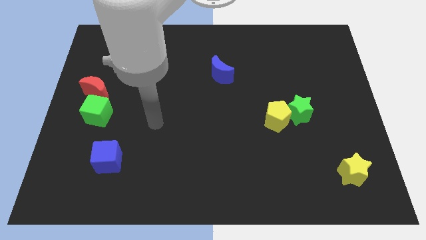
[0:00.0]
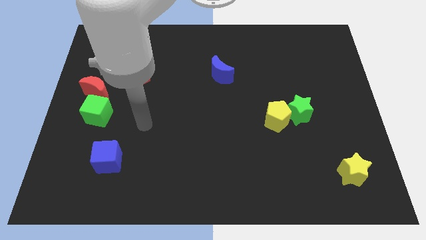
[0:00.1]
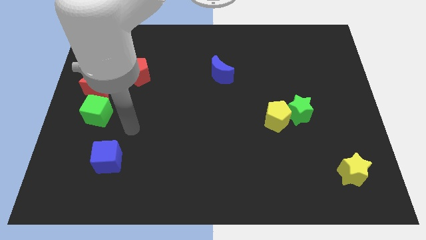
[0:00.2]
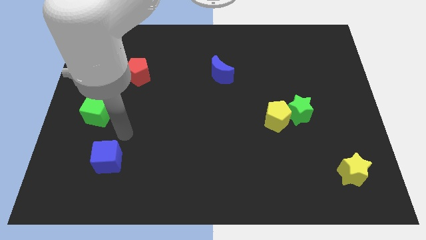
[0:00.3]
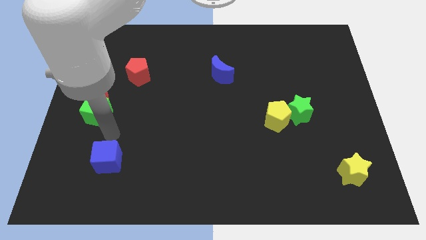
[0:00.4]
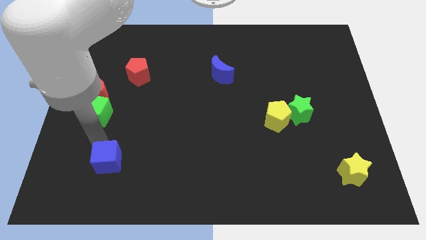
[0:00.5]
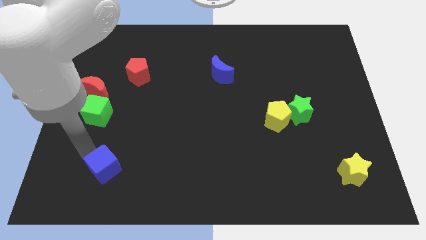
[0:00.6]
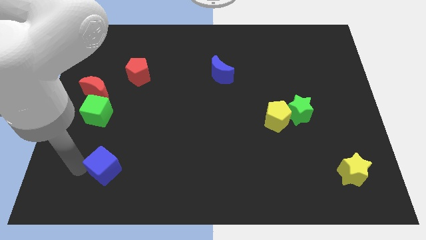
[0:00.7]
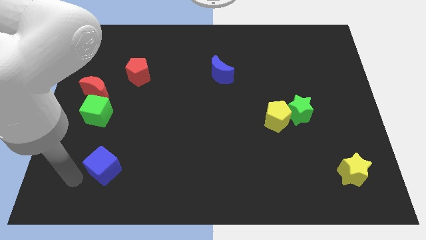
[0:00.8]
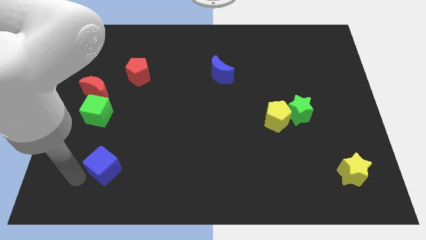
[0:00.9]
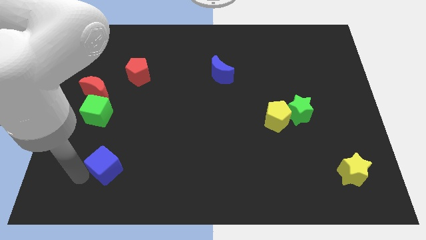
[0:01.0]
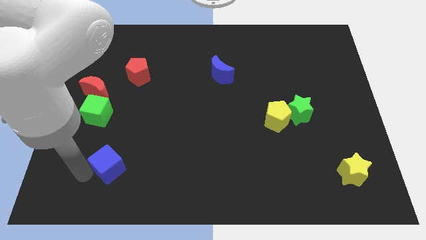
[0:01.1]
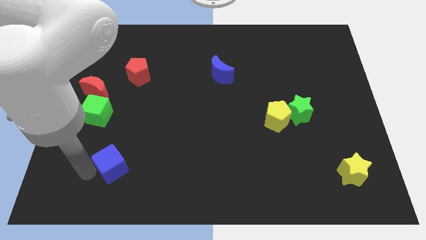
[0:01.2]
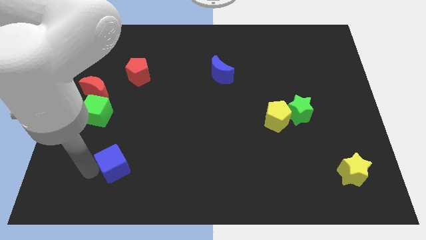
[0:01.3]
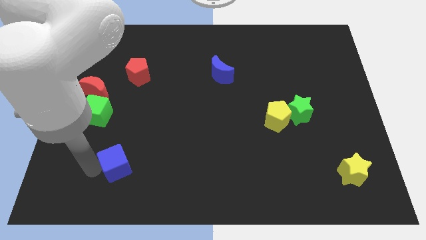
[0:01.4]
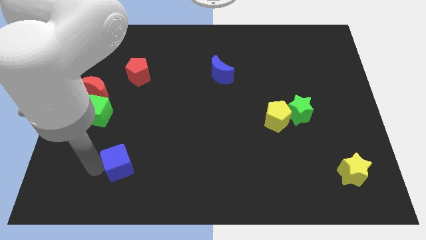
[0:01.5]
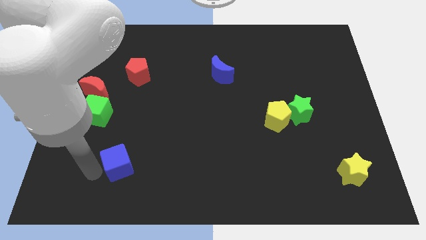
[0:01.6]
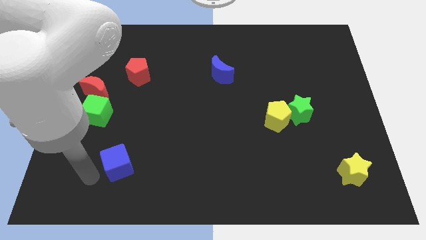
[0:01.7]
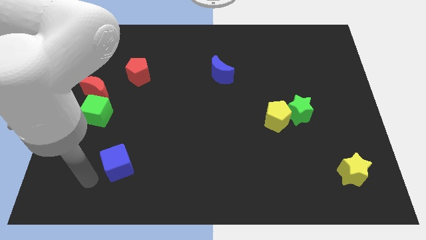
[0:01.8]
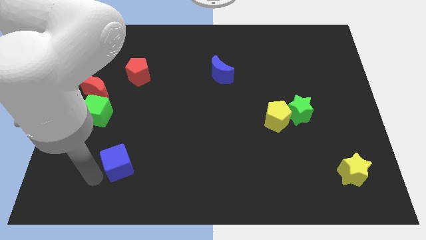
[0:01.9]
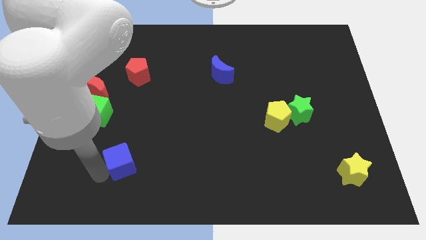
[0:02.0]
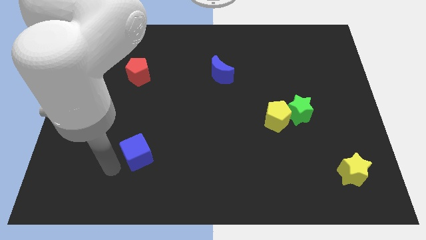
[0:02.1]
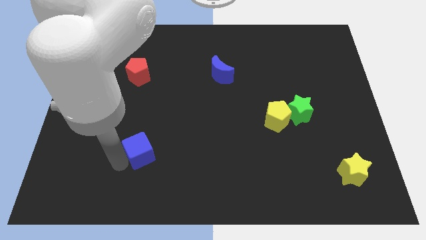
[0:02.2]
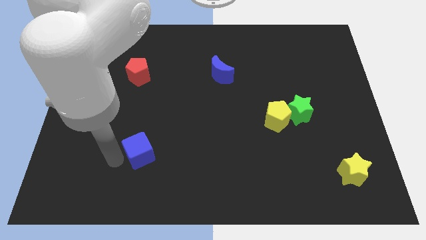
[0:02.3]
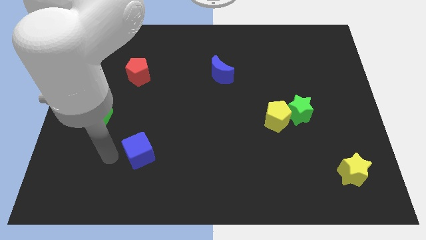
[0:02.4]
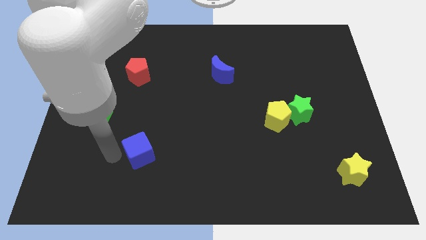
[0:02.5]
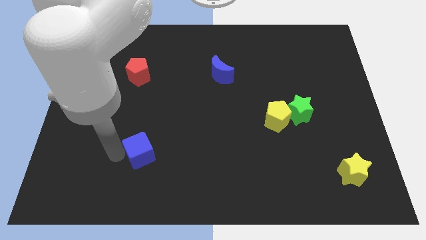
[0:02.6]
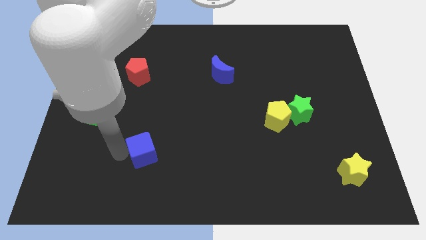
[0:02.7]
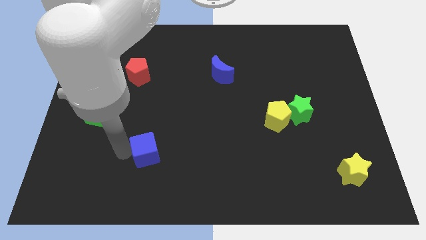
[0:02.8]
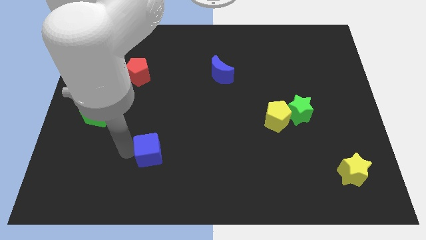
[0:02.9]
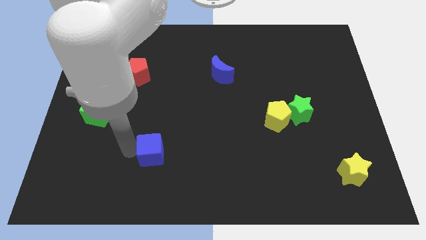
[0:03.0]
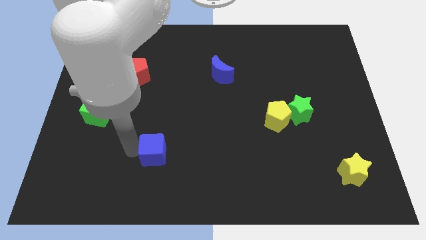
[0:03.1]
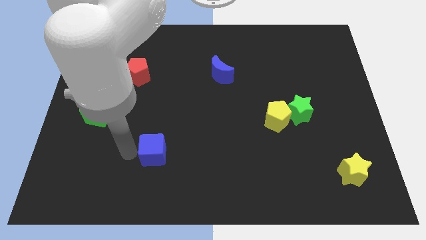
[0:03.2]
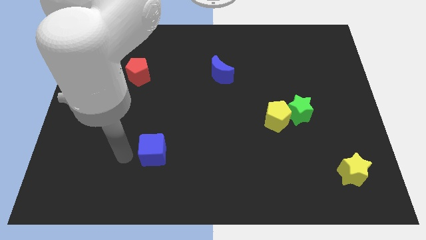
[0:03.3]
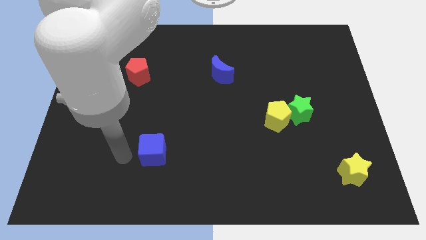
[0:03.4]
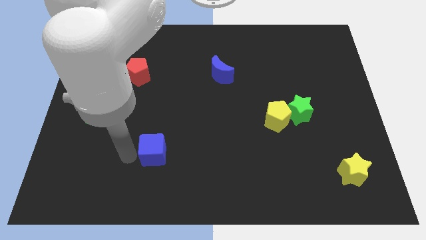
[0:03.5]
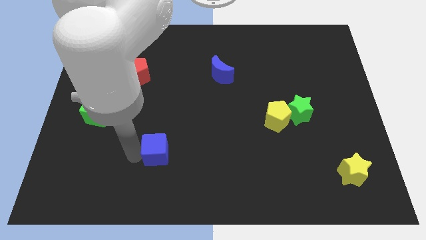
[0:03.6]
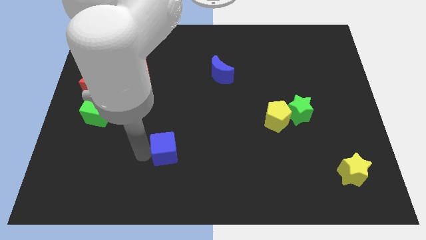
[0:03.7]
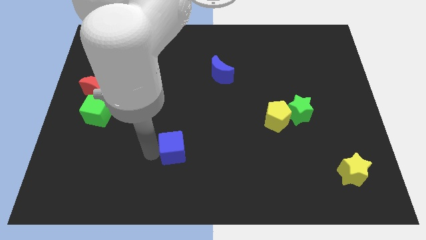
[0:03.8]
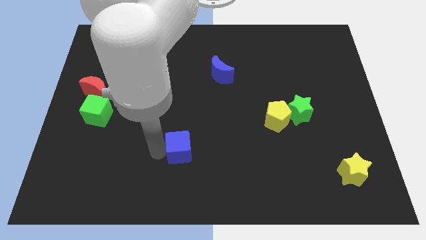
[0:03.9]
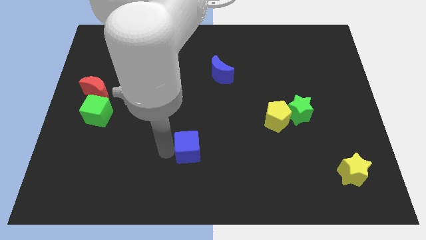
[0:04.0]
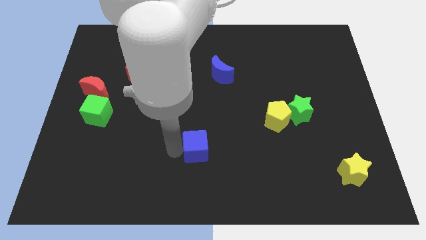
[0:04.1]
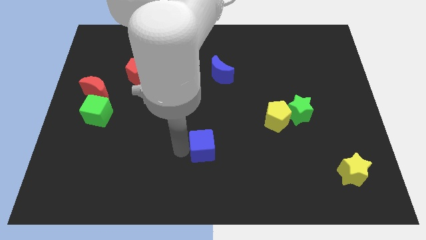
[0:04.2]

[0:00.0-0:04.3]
slide the blue cube right

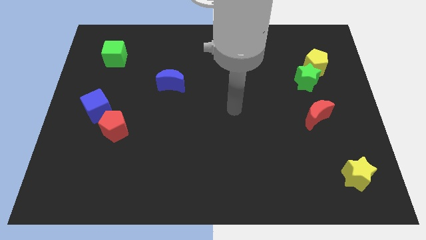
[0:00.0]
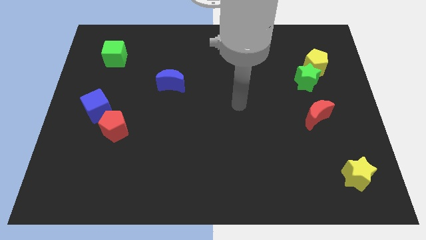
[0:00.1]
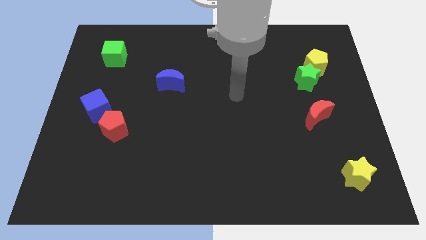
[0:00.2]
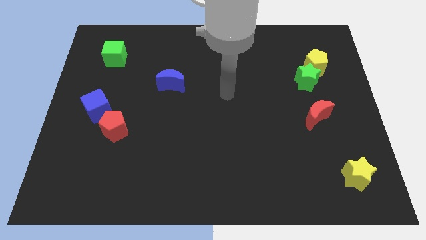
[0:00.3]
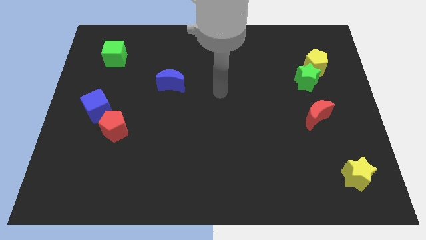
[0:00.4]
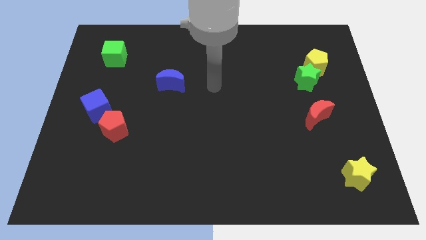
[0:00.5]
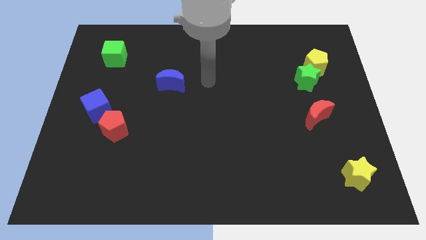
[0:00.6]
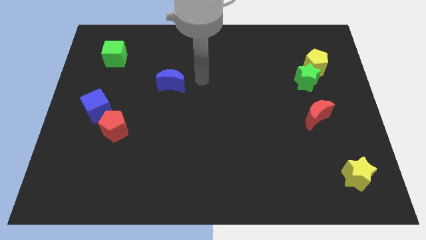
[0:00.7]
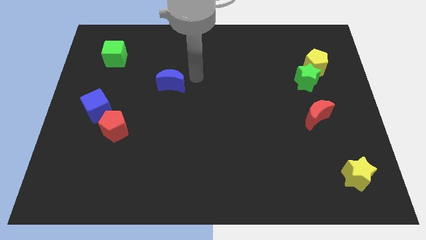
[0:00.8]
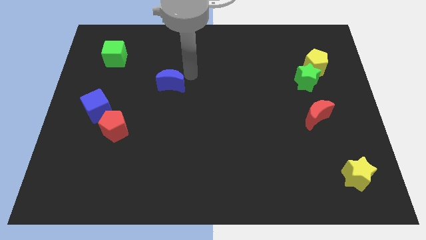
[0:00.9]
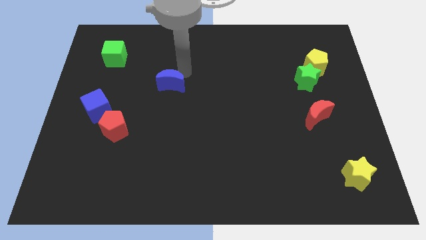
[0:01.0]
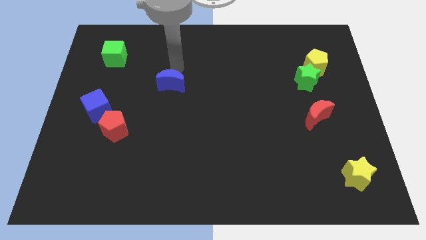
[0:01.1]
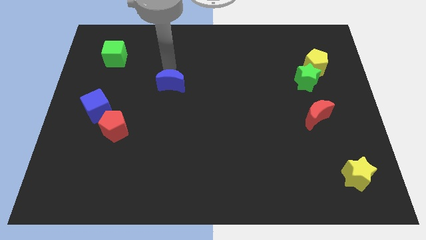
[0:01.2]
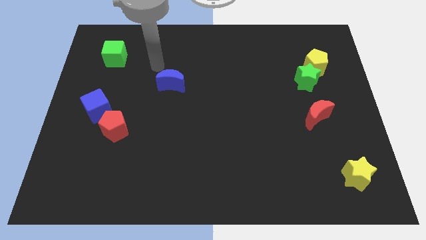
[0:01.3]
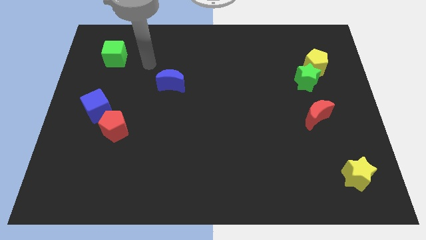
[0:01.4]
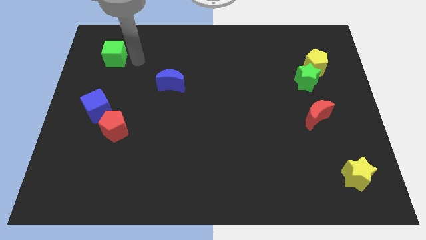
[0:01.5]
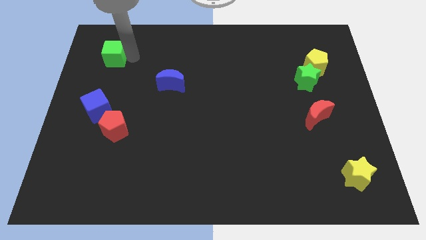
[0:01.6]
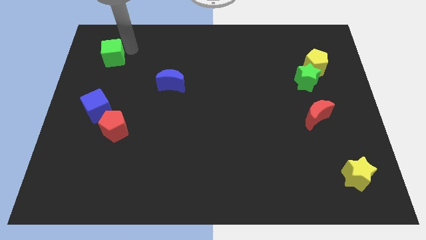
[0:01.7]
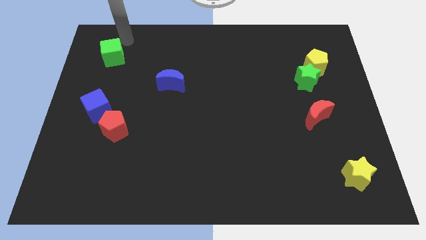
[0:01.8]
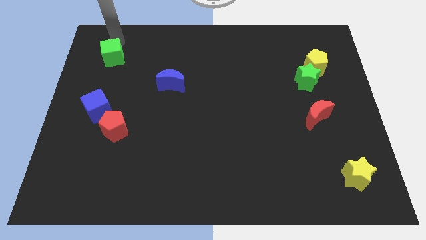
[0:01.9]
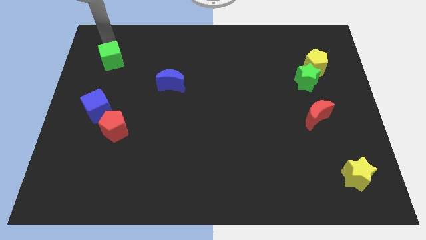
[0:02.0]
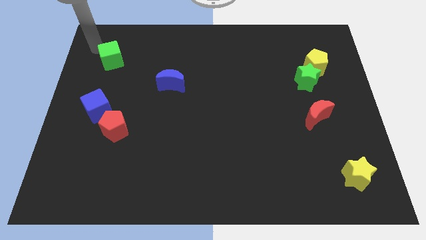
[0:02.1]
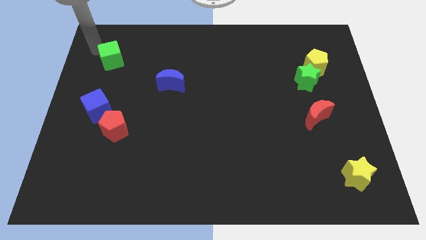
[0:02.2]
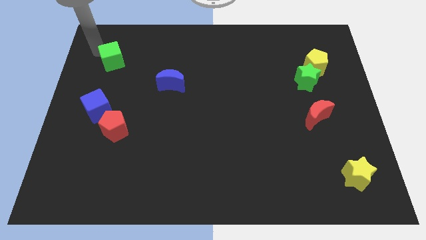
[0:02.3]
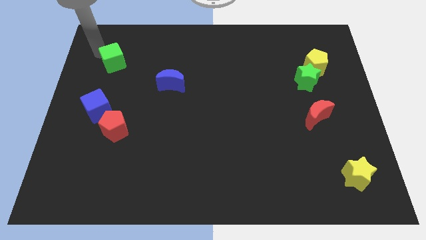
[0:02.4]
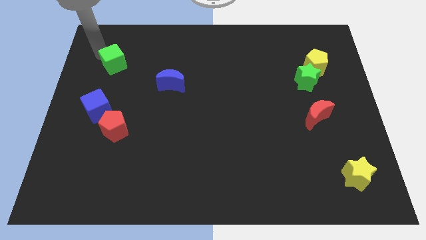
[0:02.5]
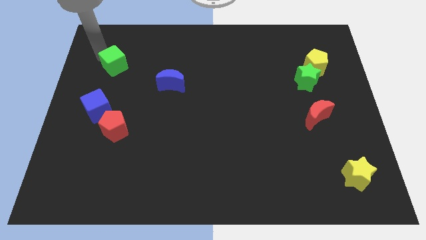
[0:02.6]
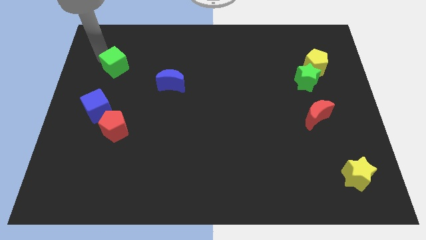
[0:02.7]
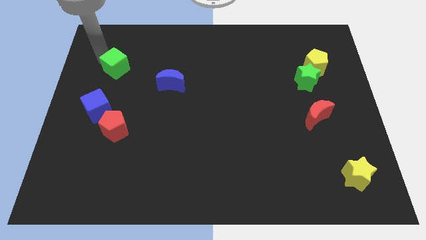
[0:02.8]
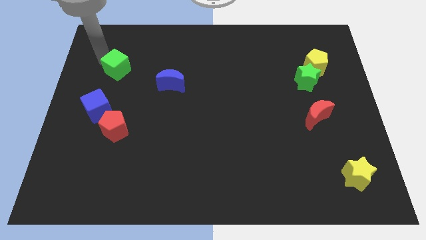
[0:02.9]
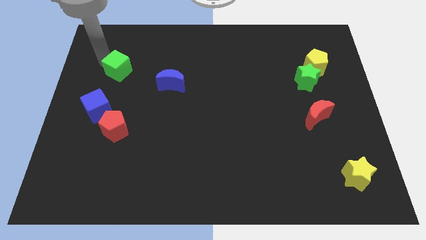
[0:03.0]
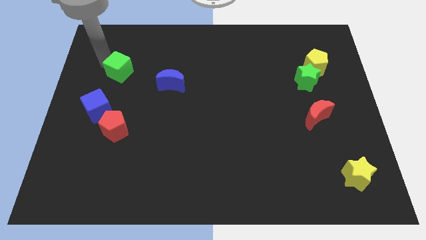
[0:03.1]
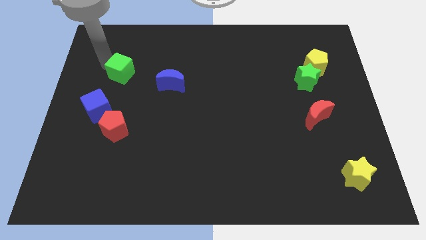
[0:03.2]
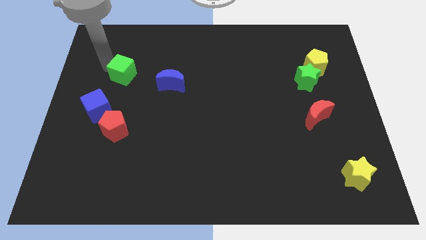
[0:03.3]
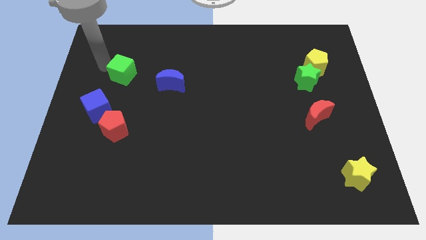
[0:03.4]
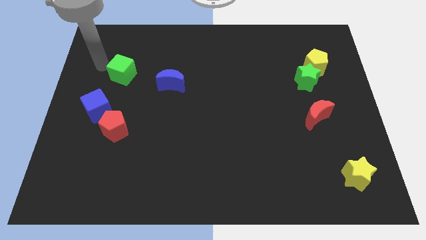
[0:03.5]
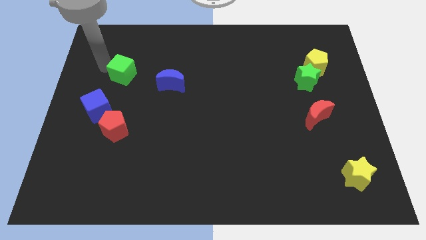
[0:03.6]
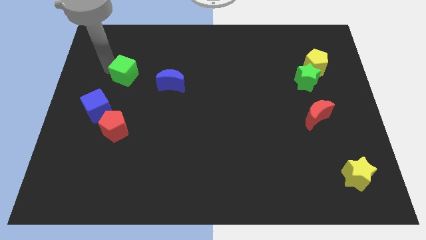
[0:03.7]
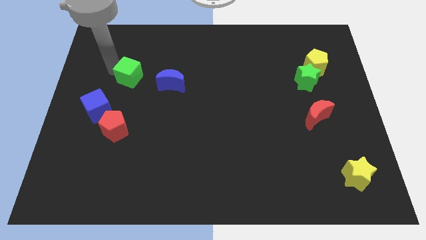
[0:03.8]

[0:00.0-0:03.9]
push the green cube a bit downwards and then to the right

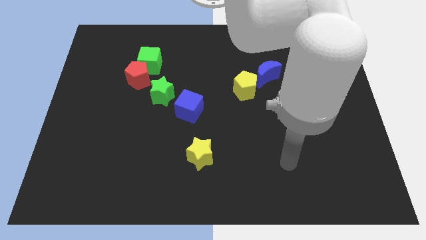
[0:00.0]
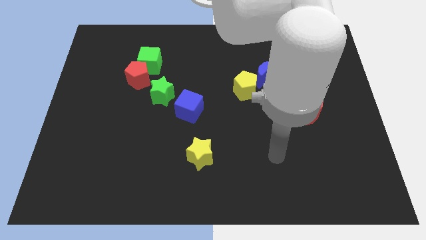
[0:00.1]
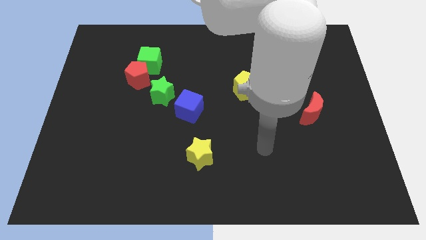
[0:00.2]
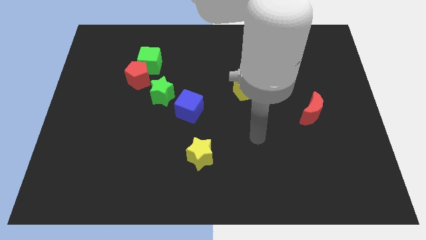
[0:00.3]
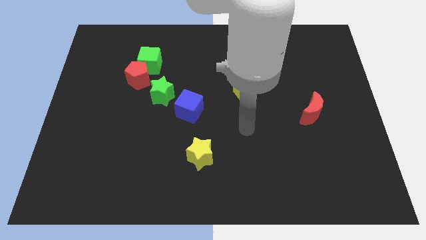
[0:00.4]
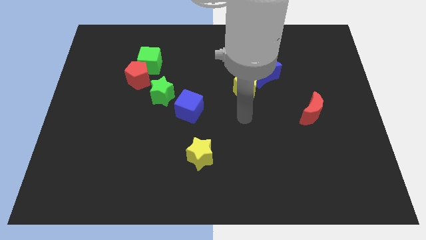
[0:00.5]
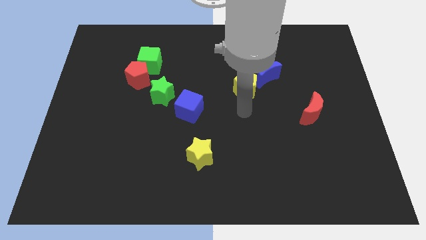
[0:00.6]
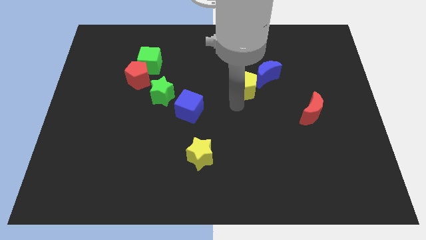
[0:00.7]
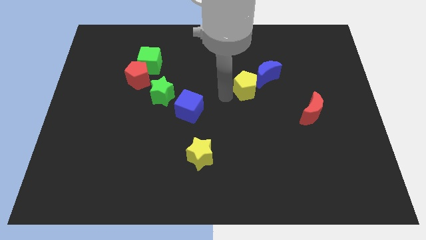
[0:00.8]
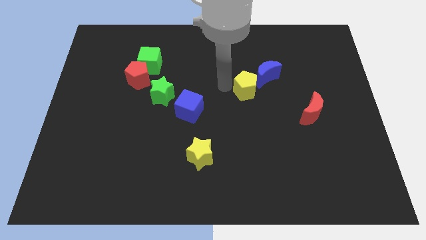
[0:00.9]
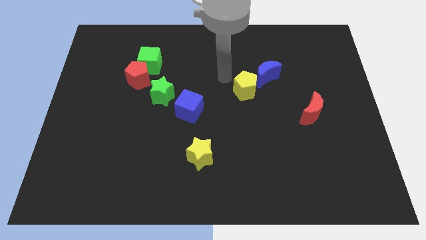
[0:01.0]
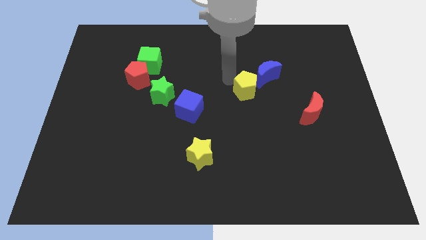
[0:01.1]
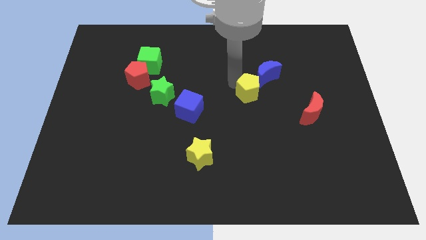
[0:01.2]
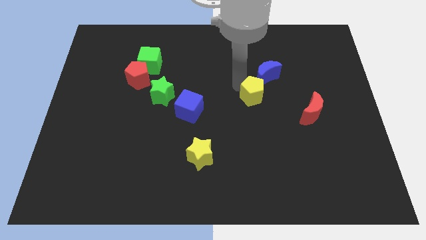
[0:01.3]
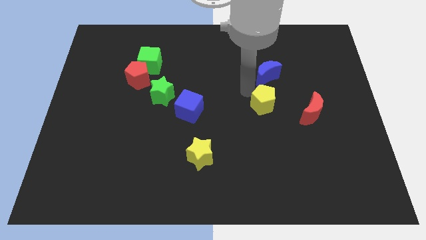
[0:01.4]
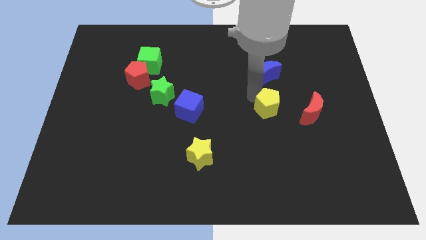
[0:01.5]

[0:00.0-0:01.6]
slightly move the yellow pentagon downwards and to the right
